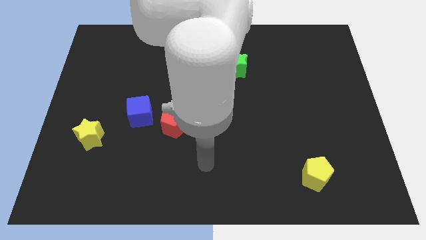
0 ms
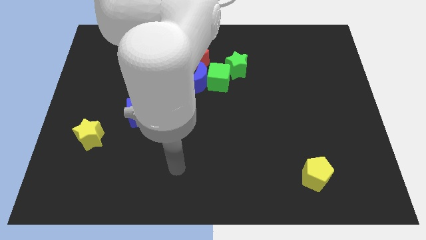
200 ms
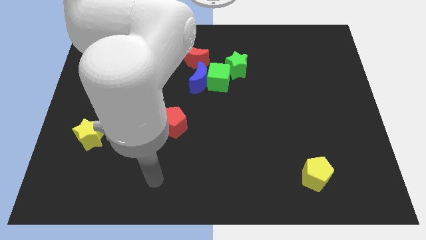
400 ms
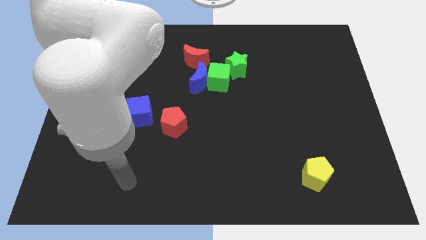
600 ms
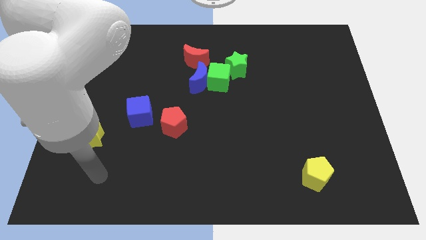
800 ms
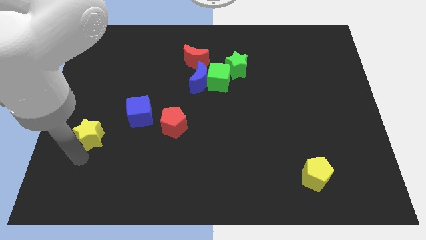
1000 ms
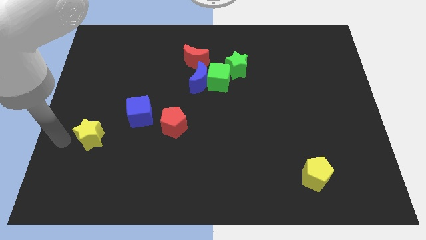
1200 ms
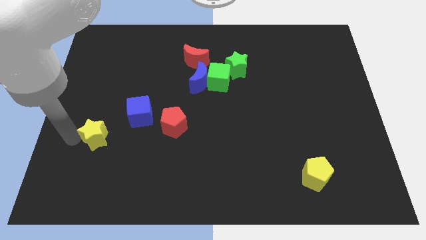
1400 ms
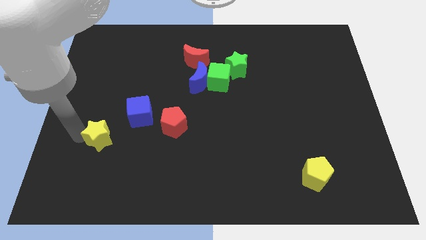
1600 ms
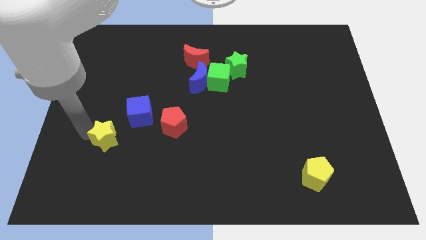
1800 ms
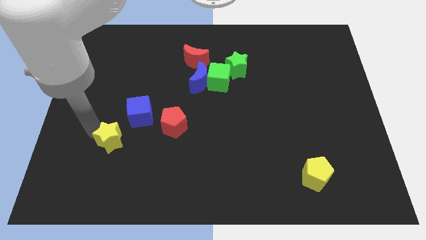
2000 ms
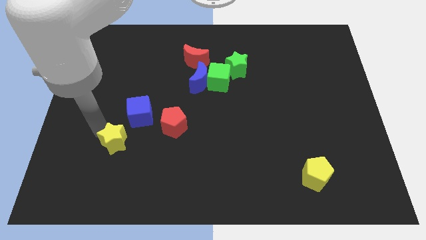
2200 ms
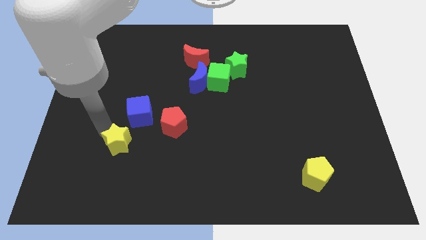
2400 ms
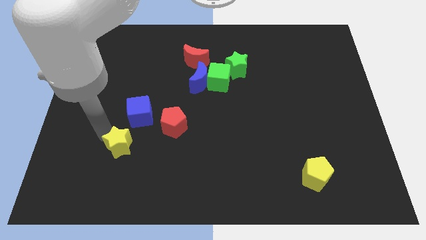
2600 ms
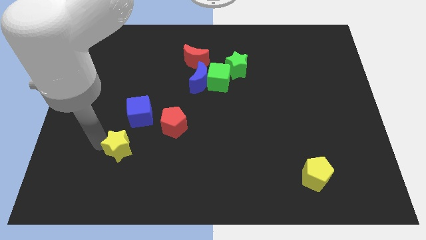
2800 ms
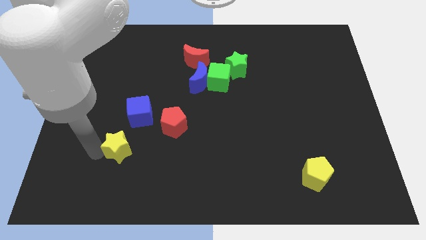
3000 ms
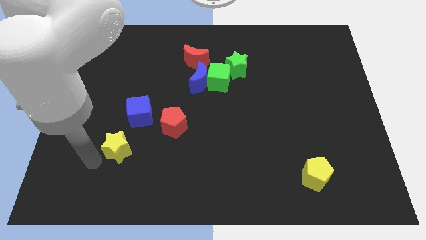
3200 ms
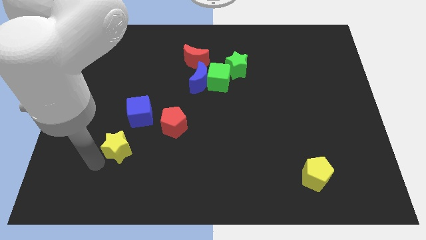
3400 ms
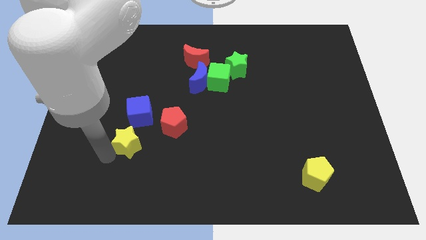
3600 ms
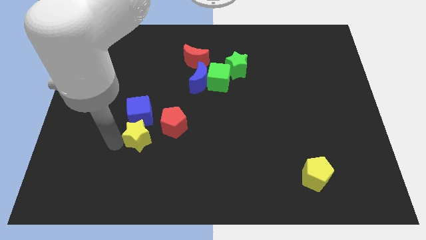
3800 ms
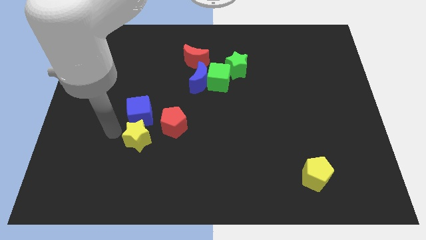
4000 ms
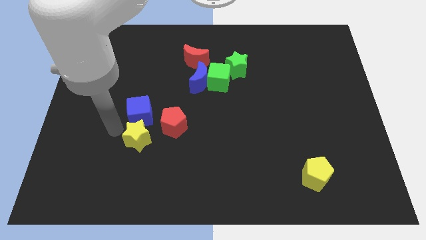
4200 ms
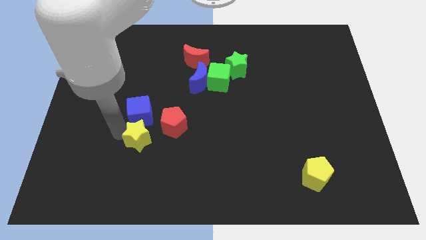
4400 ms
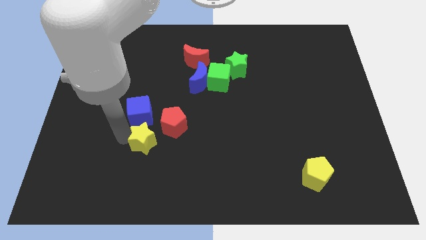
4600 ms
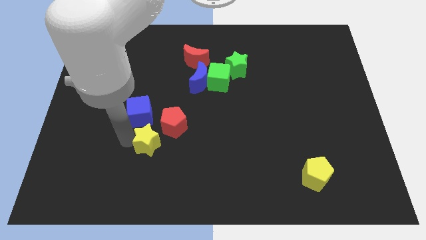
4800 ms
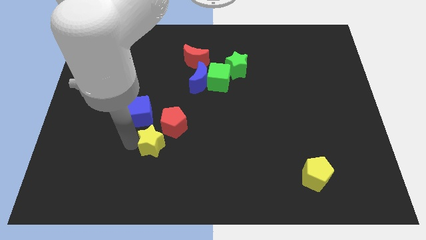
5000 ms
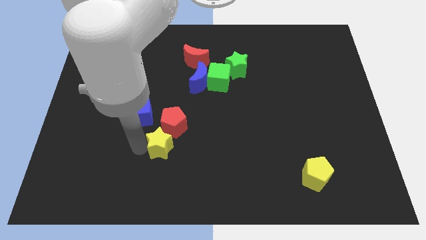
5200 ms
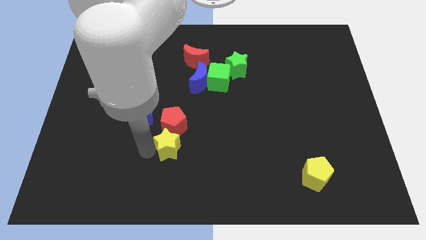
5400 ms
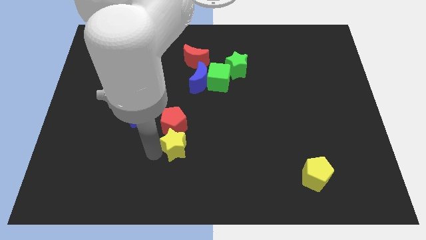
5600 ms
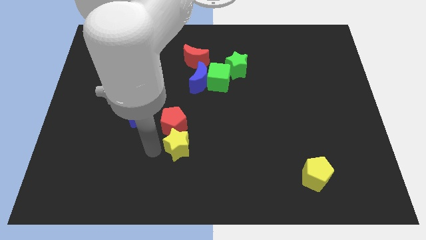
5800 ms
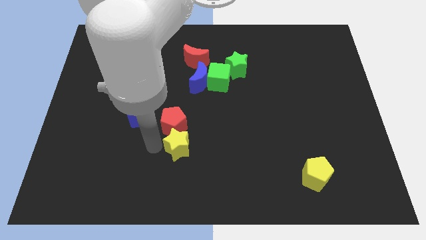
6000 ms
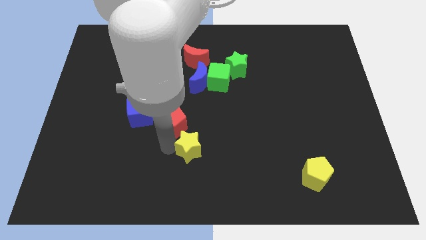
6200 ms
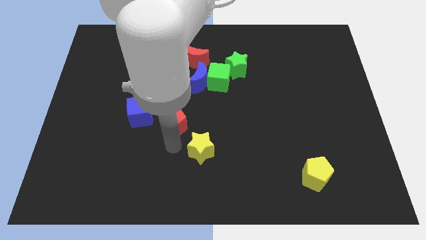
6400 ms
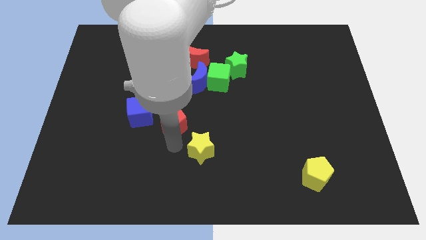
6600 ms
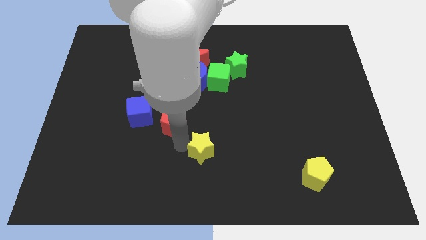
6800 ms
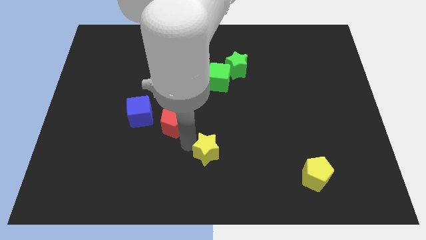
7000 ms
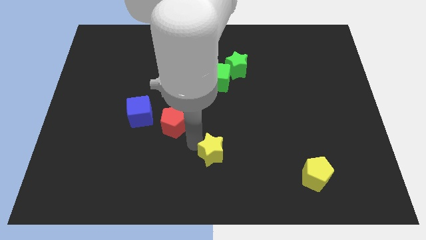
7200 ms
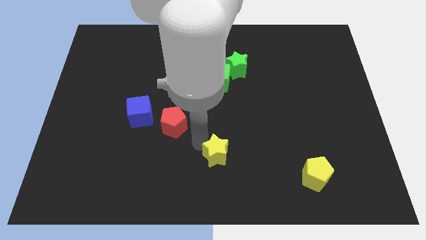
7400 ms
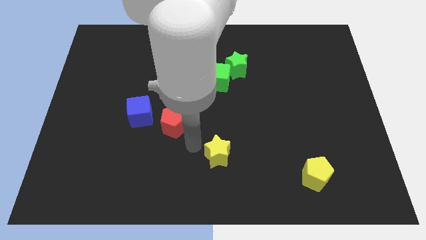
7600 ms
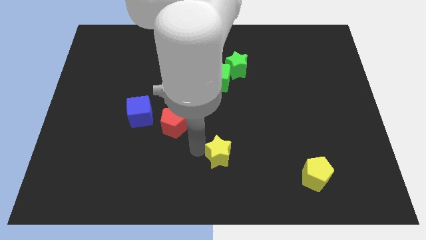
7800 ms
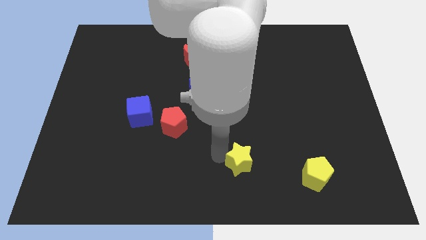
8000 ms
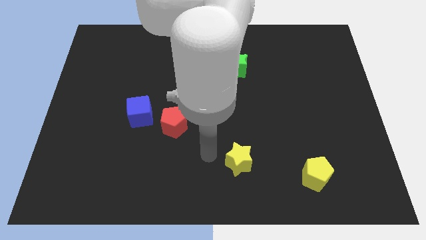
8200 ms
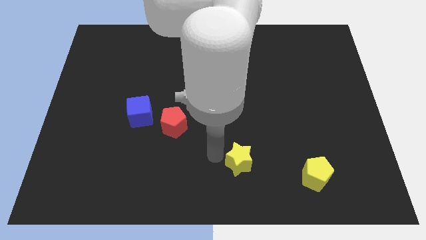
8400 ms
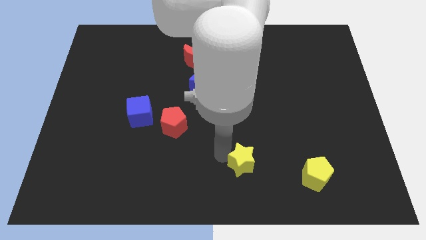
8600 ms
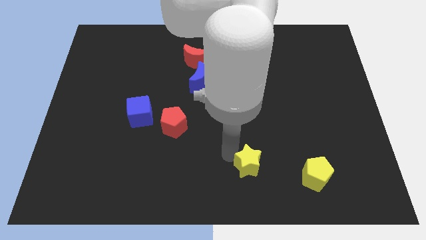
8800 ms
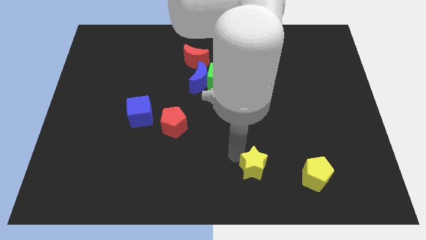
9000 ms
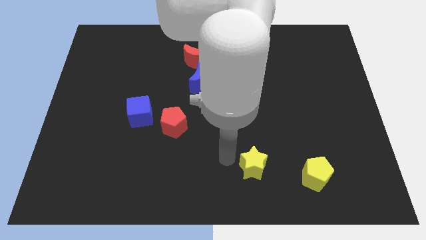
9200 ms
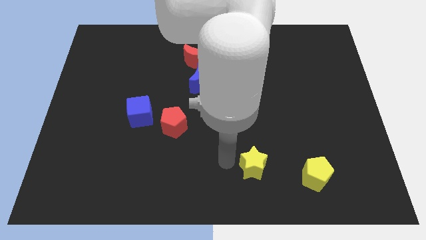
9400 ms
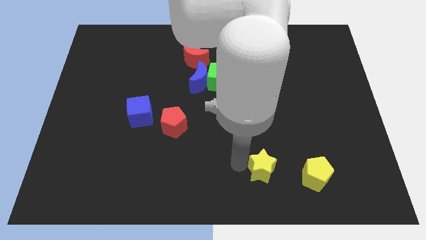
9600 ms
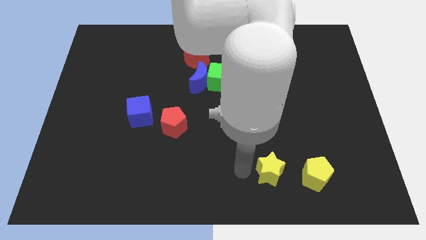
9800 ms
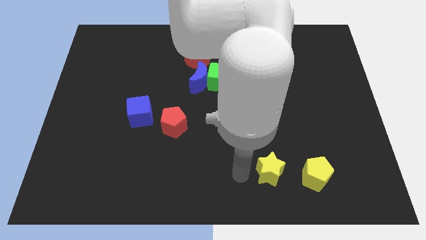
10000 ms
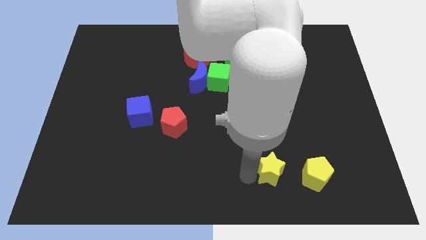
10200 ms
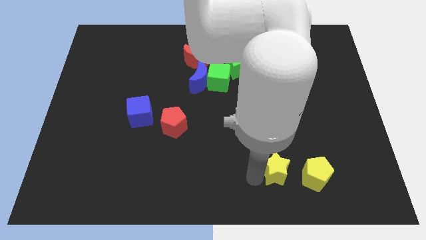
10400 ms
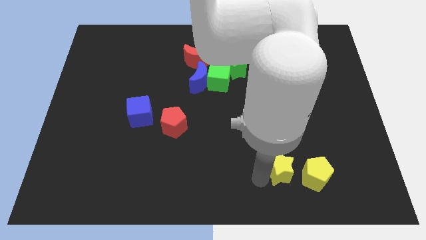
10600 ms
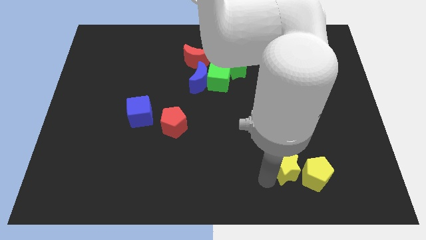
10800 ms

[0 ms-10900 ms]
slide the yellow star close to the yellow pentagon

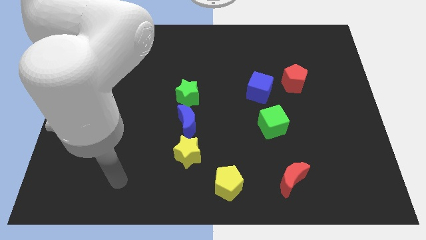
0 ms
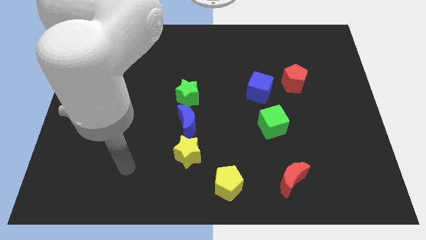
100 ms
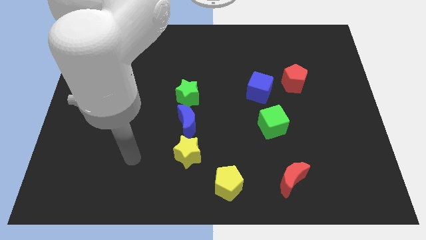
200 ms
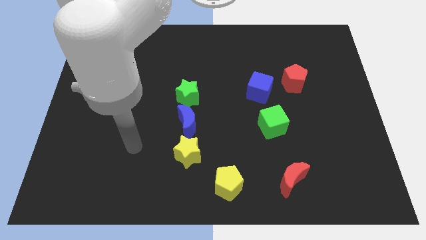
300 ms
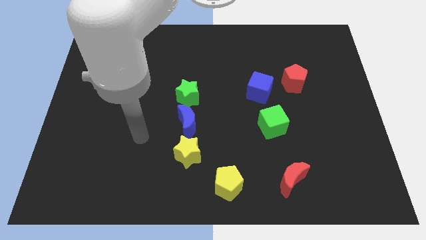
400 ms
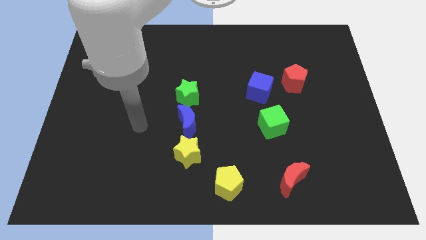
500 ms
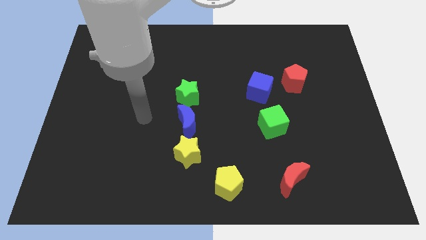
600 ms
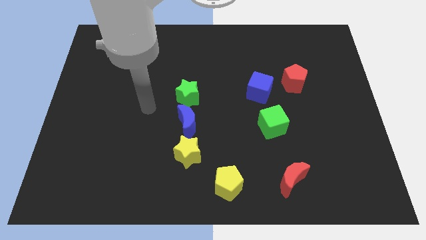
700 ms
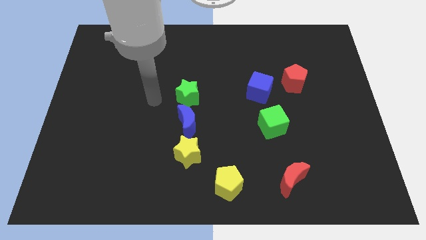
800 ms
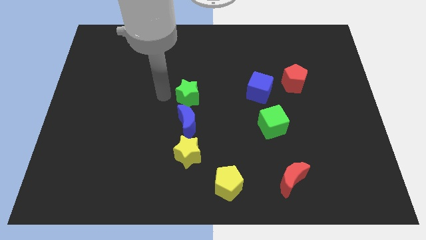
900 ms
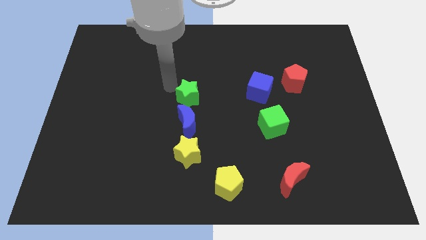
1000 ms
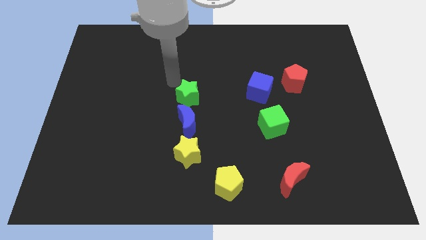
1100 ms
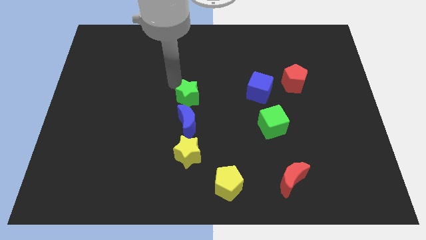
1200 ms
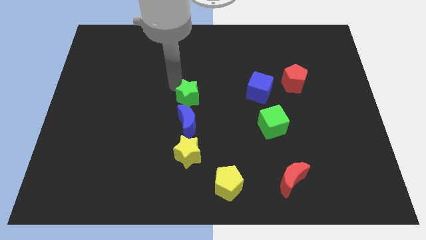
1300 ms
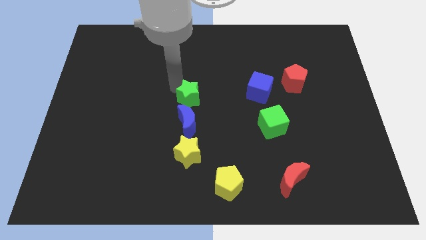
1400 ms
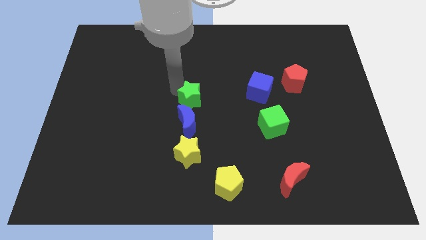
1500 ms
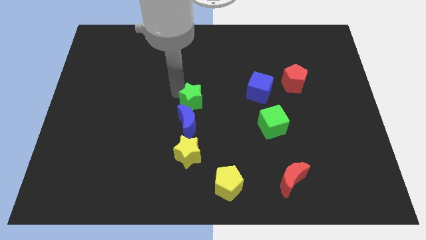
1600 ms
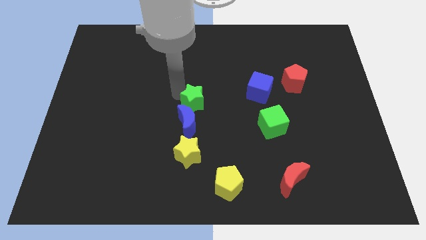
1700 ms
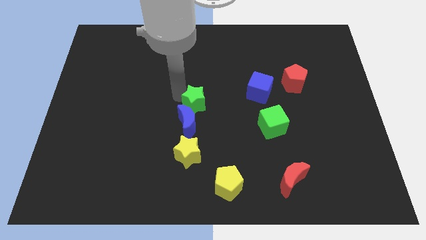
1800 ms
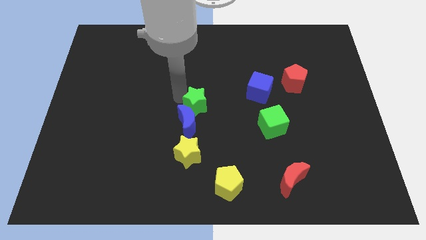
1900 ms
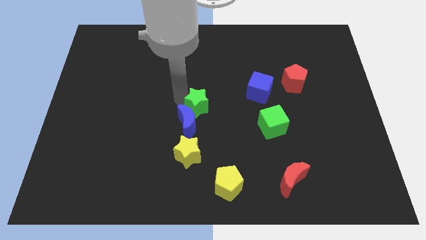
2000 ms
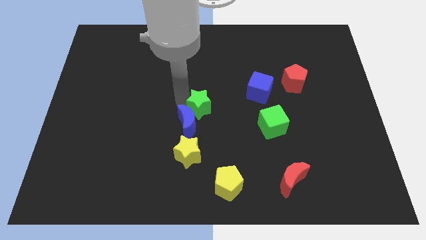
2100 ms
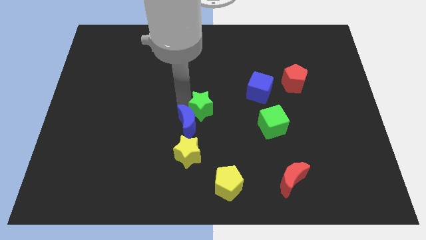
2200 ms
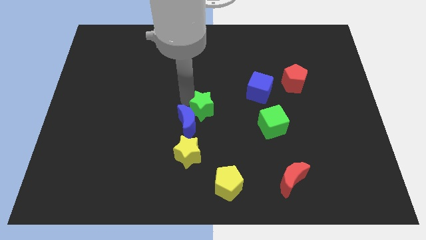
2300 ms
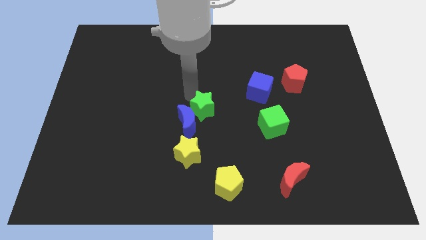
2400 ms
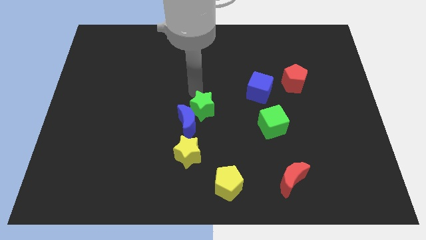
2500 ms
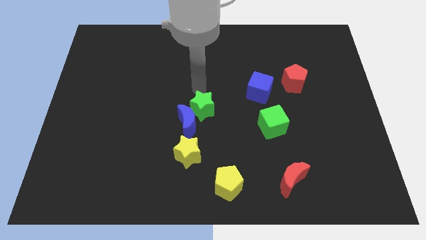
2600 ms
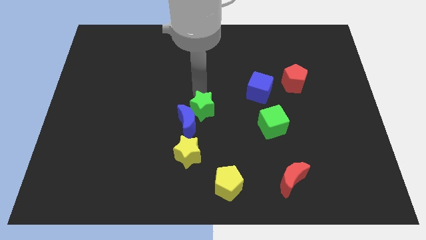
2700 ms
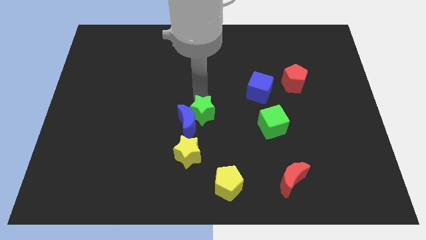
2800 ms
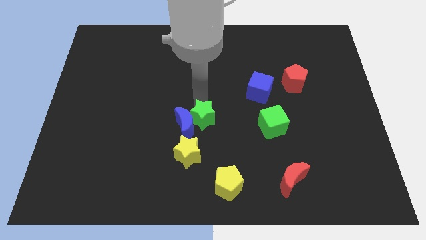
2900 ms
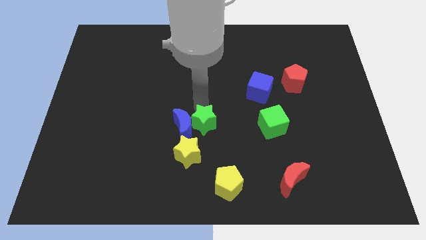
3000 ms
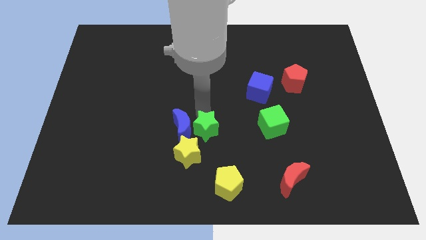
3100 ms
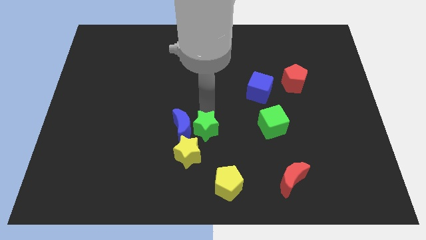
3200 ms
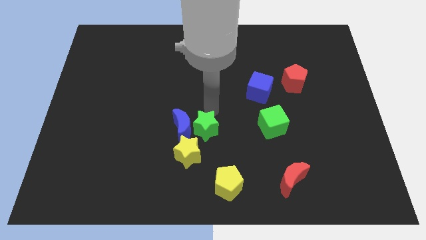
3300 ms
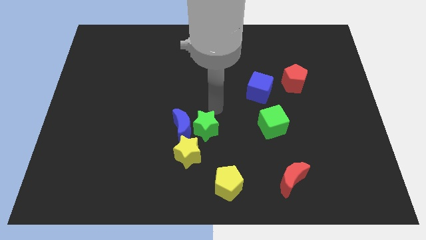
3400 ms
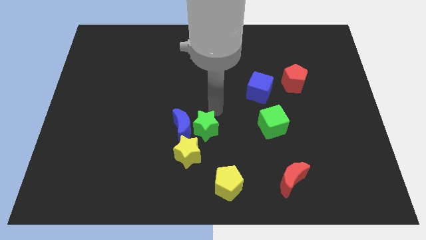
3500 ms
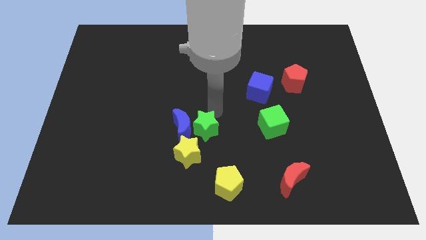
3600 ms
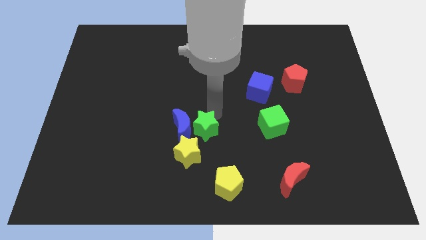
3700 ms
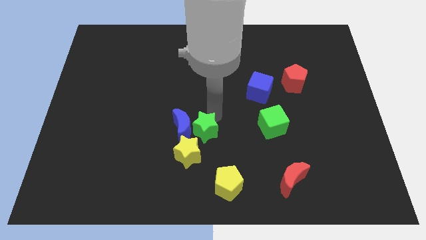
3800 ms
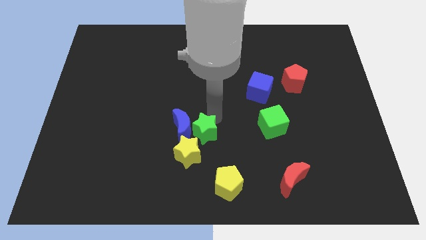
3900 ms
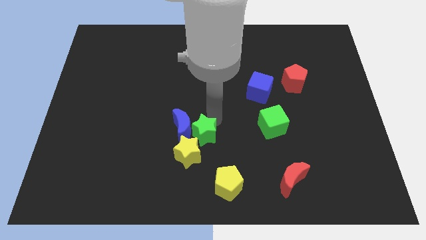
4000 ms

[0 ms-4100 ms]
put the green star close to the yellow star
